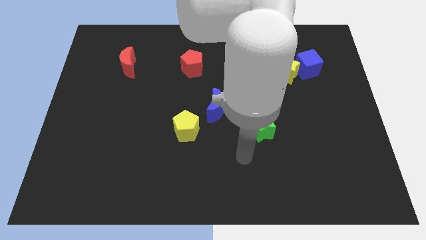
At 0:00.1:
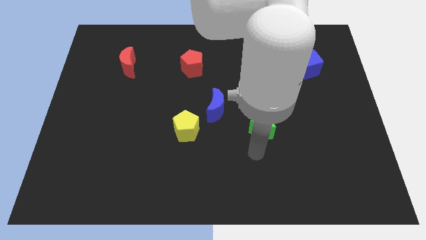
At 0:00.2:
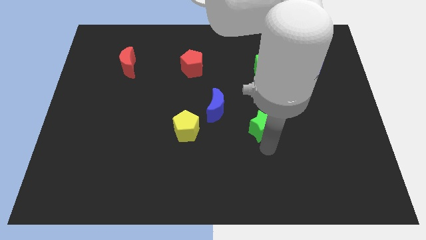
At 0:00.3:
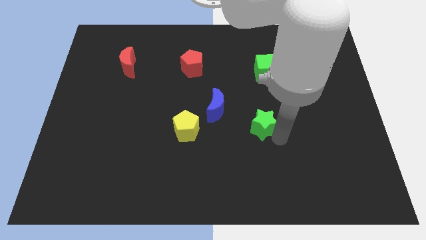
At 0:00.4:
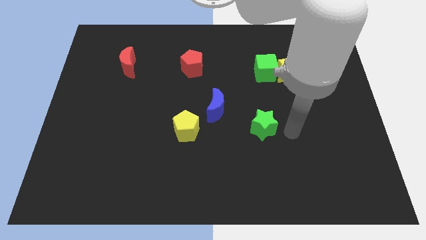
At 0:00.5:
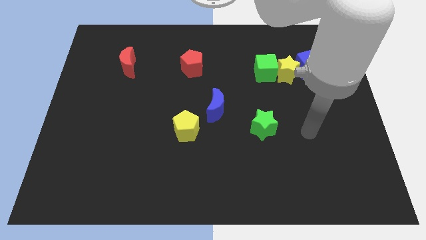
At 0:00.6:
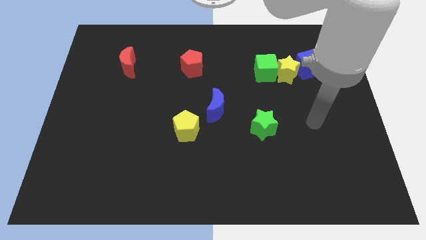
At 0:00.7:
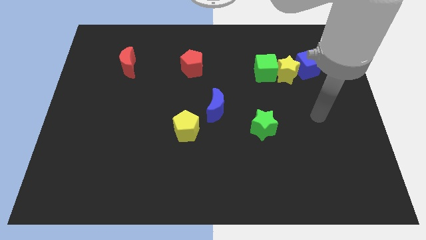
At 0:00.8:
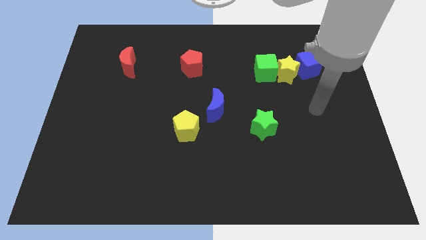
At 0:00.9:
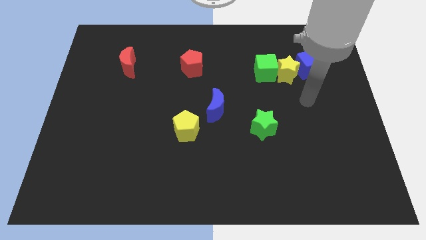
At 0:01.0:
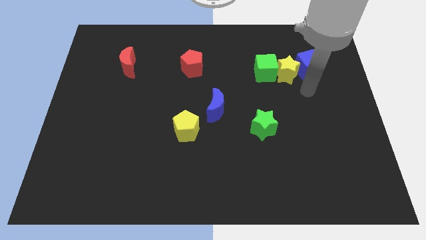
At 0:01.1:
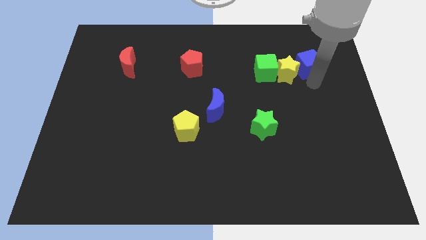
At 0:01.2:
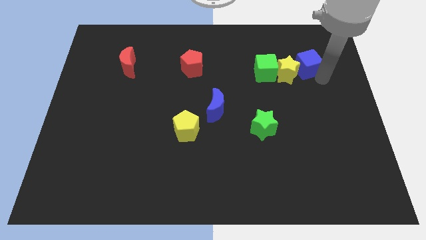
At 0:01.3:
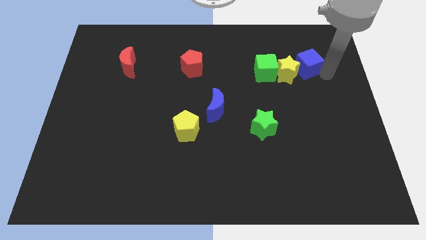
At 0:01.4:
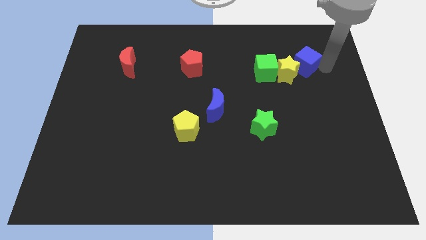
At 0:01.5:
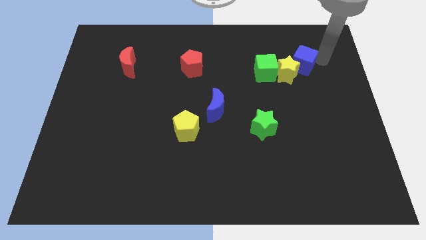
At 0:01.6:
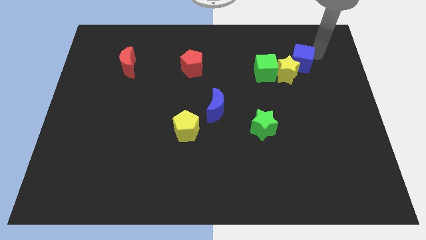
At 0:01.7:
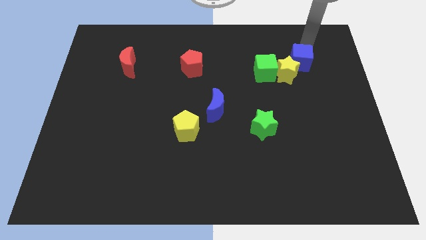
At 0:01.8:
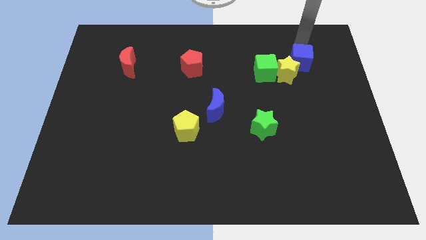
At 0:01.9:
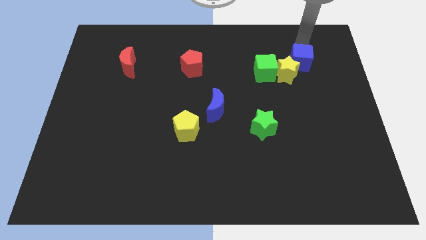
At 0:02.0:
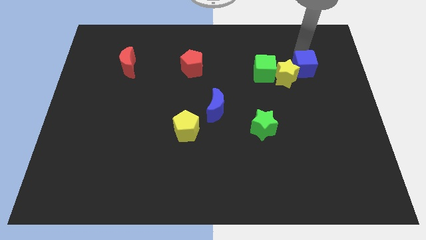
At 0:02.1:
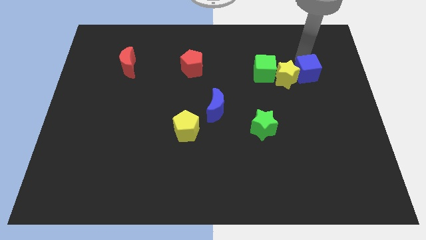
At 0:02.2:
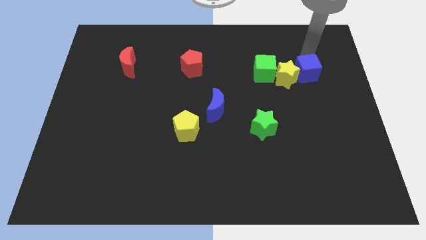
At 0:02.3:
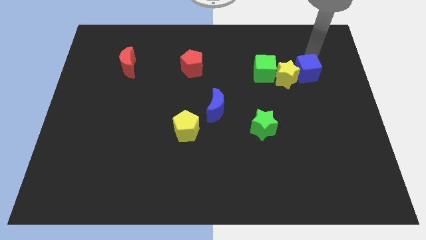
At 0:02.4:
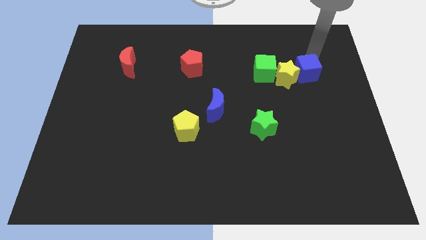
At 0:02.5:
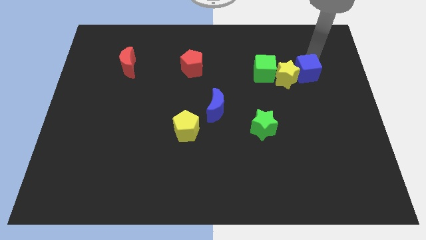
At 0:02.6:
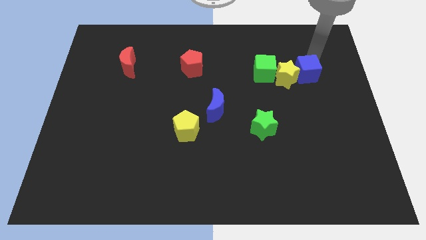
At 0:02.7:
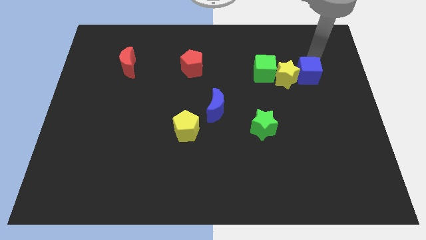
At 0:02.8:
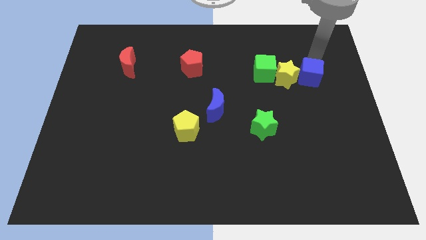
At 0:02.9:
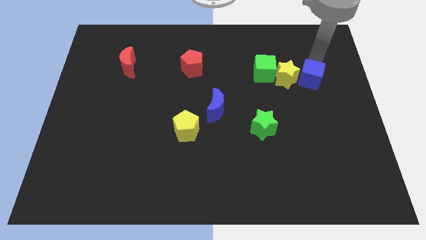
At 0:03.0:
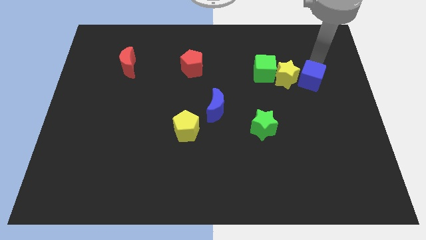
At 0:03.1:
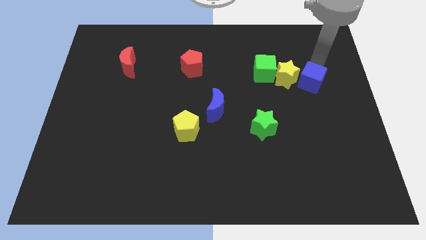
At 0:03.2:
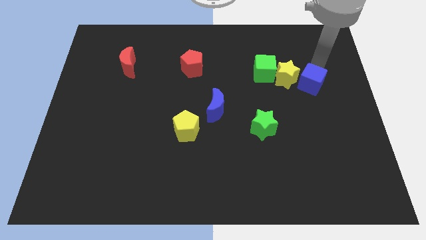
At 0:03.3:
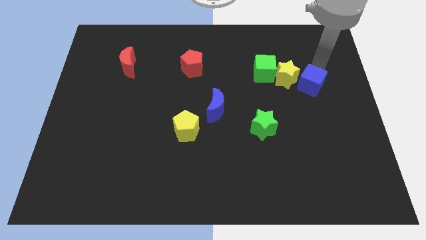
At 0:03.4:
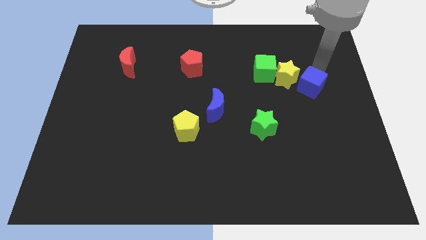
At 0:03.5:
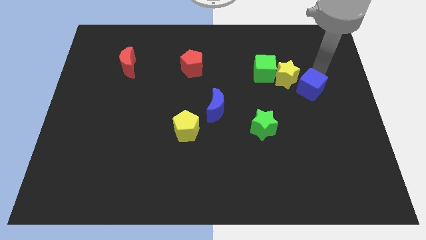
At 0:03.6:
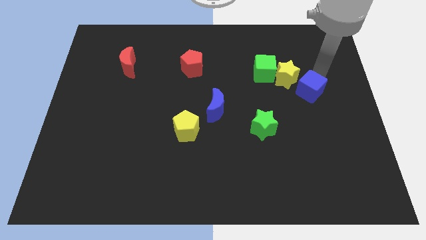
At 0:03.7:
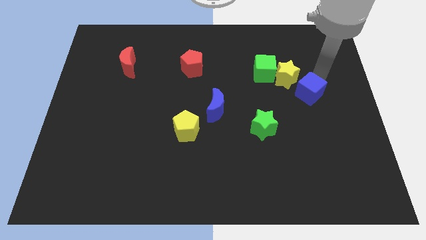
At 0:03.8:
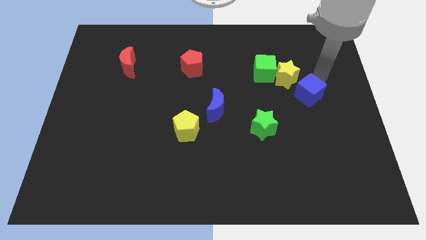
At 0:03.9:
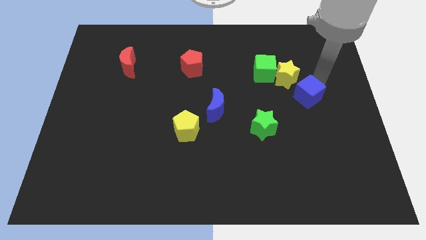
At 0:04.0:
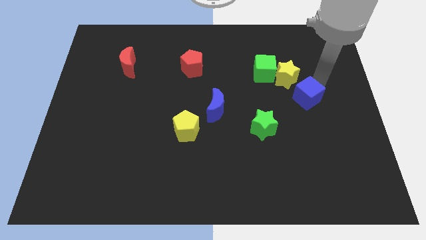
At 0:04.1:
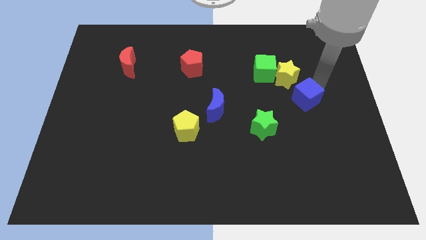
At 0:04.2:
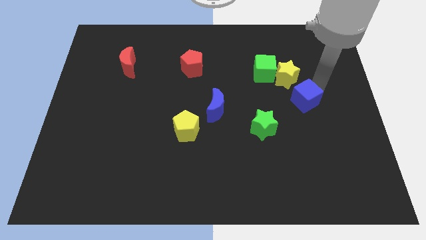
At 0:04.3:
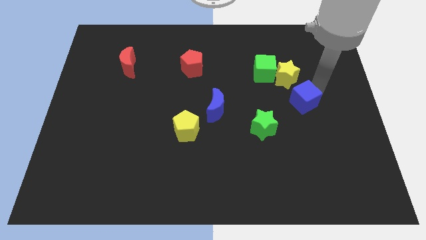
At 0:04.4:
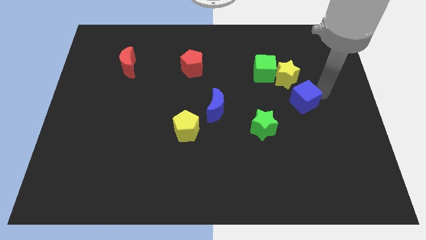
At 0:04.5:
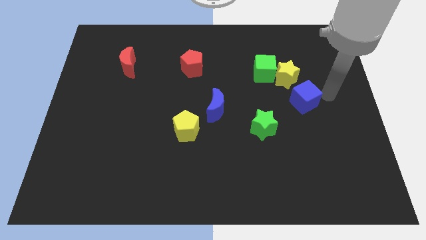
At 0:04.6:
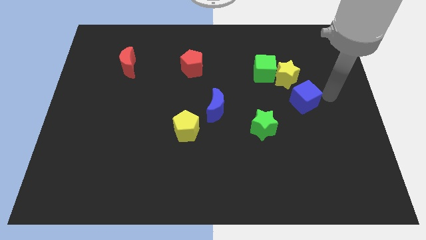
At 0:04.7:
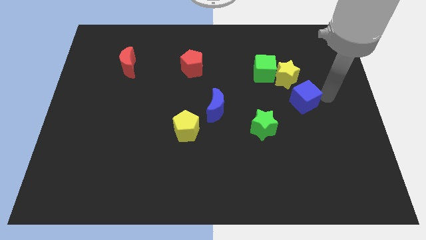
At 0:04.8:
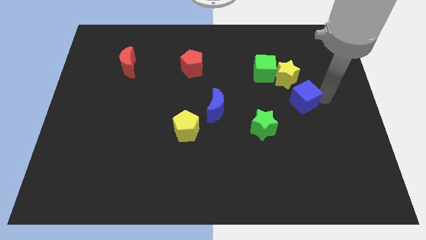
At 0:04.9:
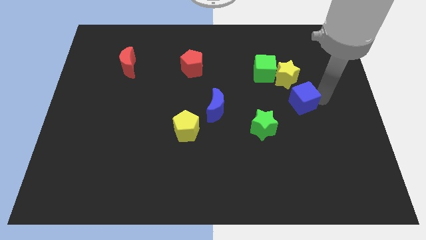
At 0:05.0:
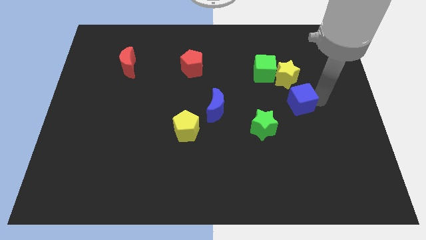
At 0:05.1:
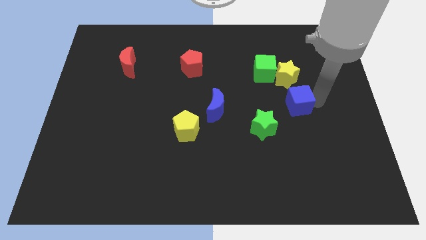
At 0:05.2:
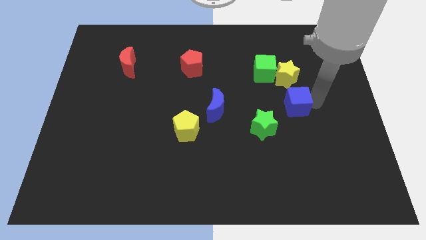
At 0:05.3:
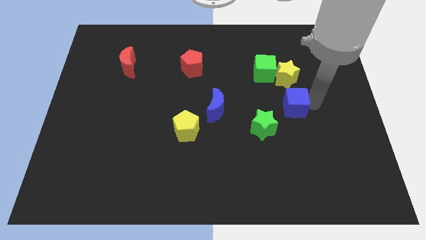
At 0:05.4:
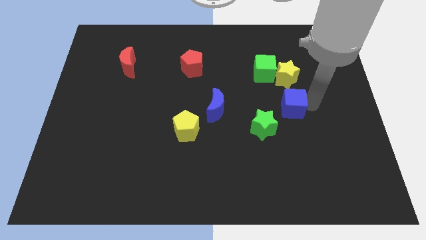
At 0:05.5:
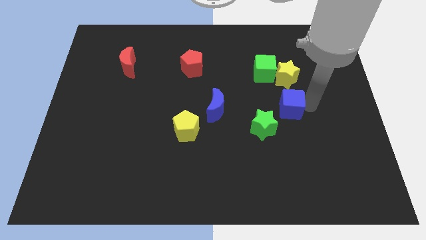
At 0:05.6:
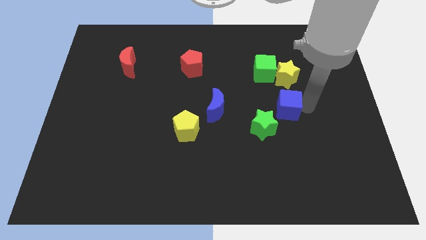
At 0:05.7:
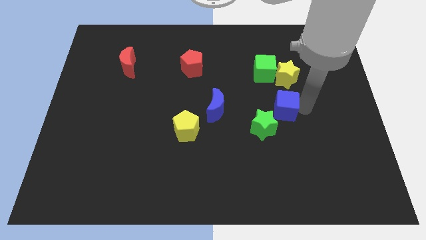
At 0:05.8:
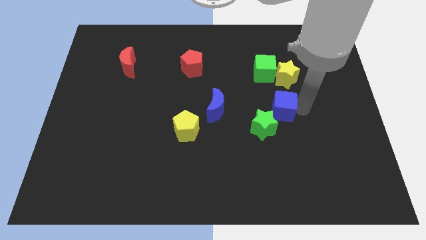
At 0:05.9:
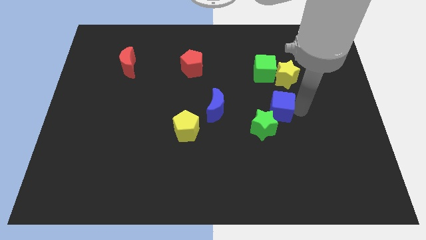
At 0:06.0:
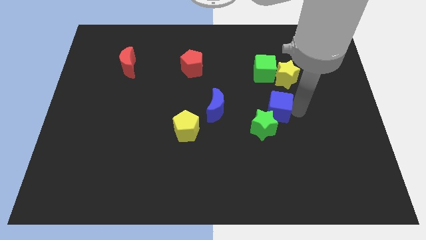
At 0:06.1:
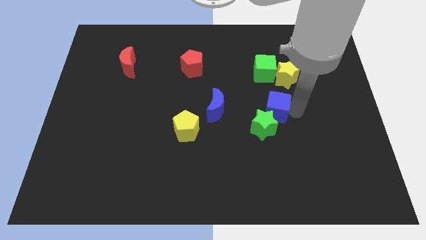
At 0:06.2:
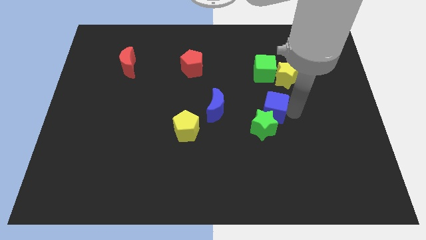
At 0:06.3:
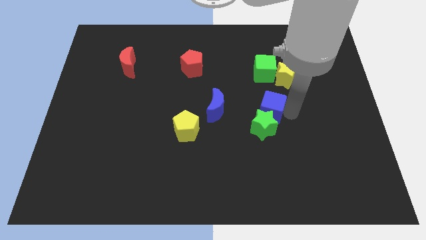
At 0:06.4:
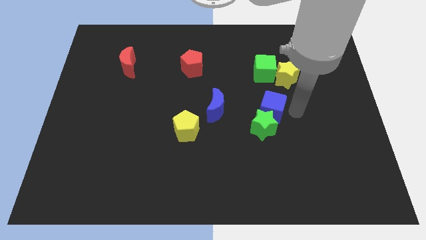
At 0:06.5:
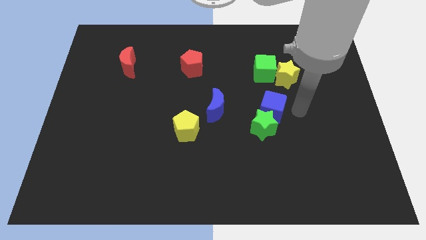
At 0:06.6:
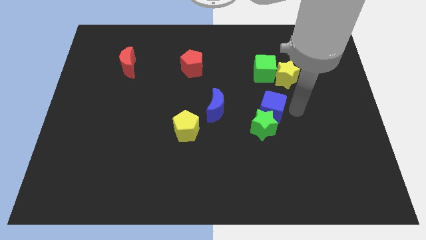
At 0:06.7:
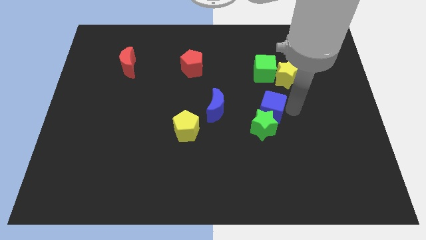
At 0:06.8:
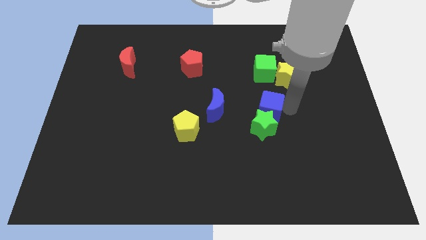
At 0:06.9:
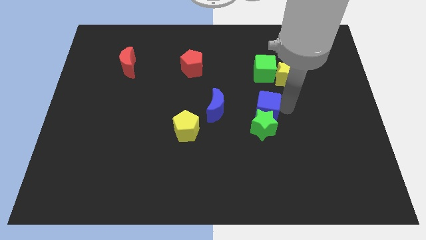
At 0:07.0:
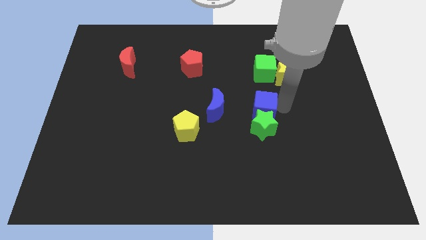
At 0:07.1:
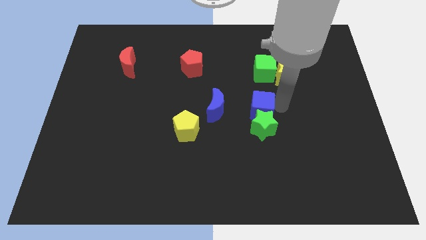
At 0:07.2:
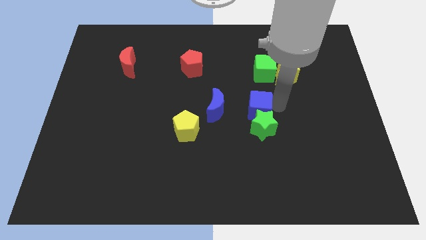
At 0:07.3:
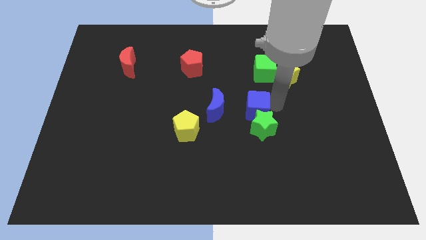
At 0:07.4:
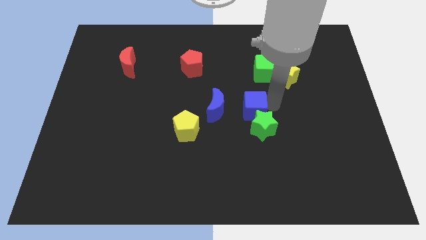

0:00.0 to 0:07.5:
slide the blue cube down and then left

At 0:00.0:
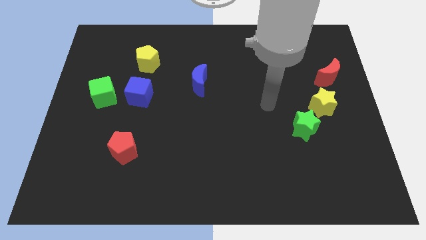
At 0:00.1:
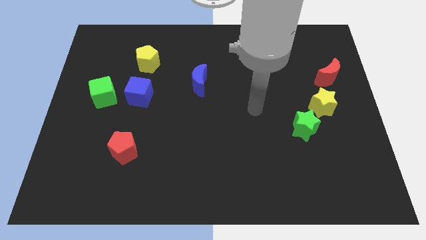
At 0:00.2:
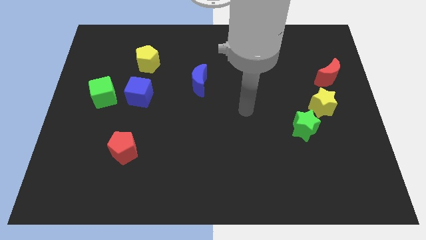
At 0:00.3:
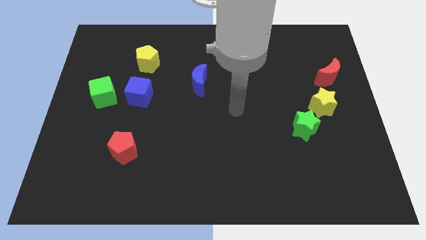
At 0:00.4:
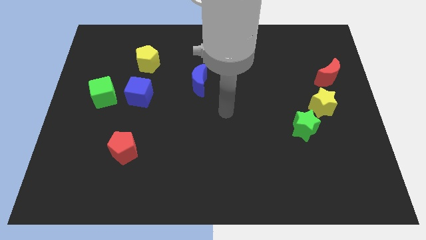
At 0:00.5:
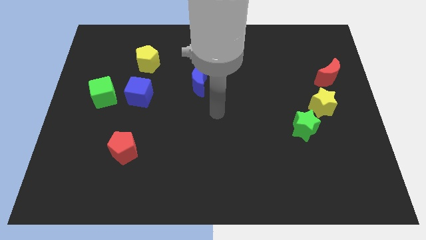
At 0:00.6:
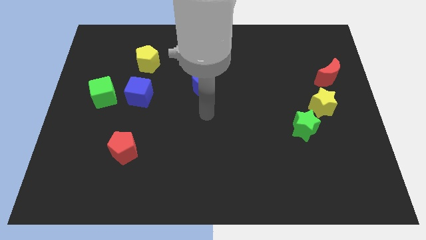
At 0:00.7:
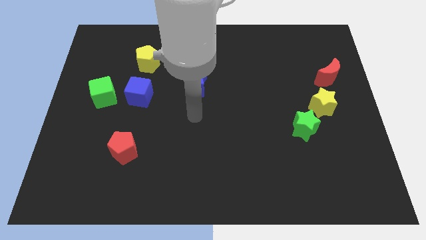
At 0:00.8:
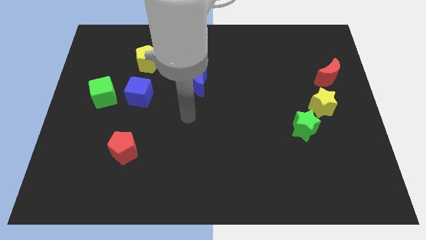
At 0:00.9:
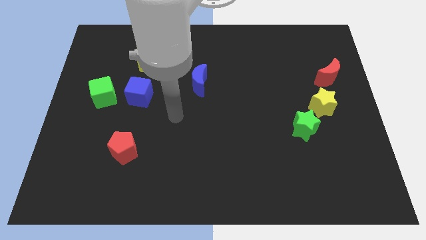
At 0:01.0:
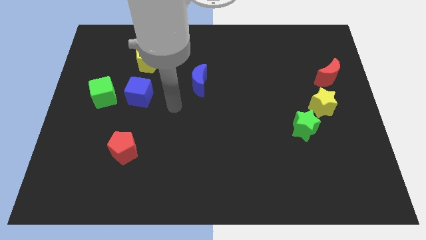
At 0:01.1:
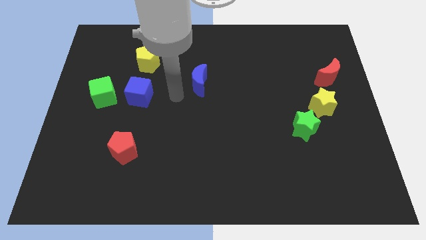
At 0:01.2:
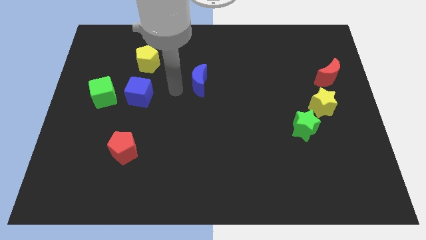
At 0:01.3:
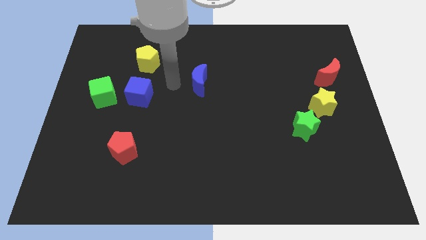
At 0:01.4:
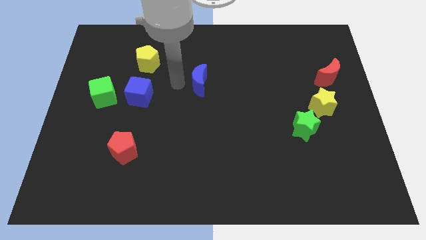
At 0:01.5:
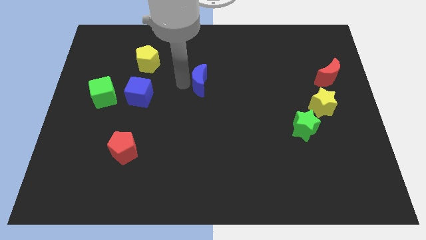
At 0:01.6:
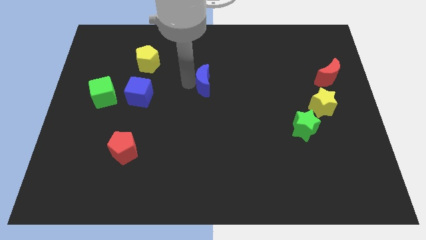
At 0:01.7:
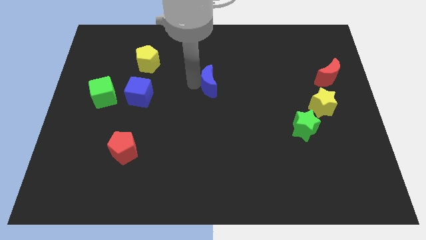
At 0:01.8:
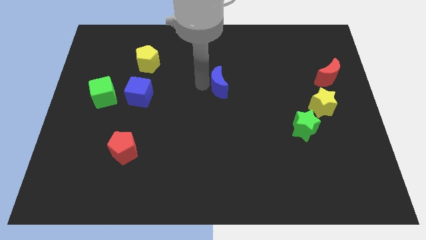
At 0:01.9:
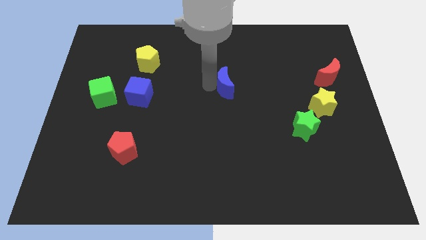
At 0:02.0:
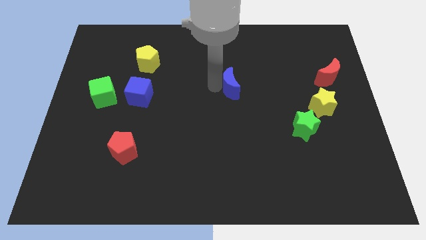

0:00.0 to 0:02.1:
push the blue moon a little to the right
